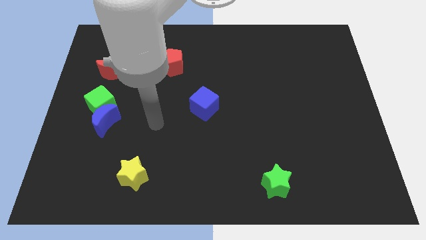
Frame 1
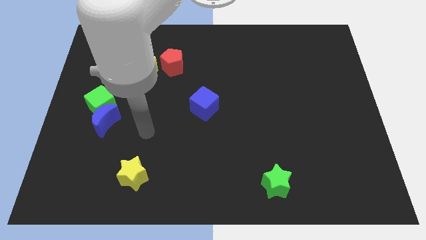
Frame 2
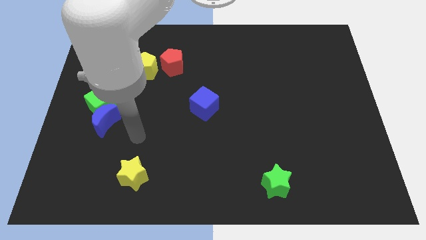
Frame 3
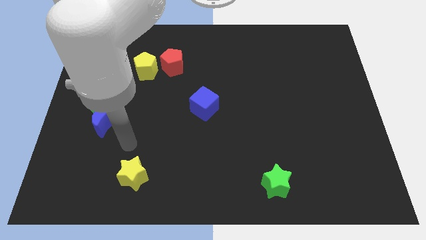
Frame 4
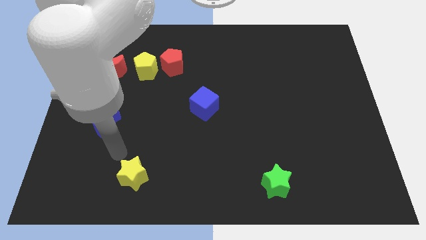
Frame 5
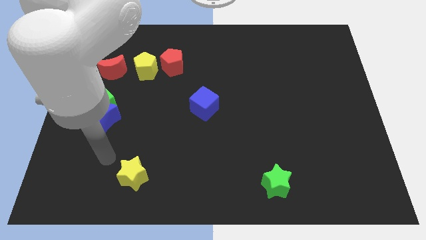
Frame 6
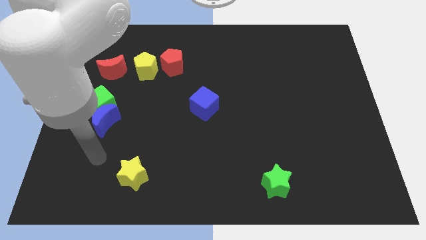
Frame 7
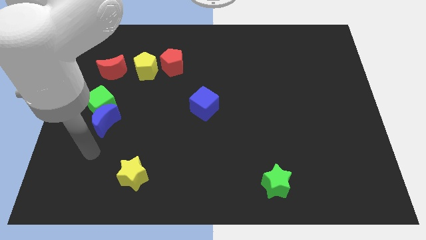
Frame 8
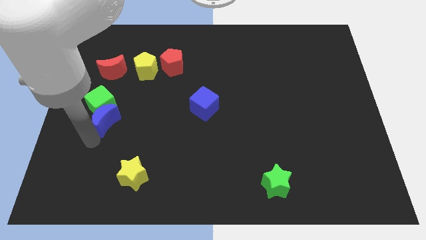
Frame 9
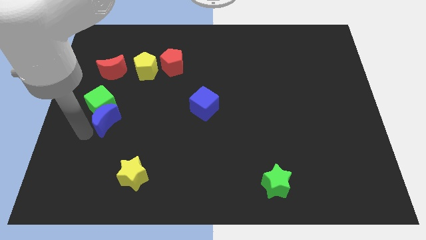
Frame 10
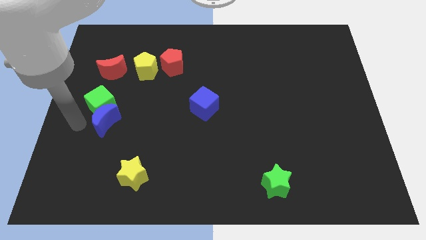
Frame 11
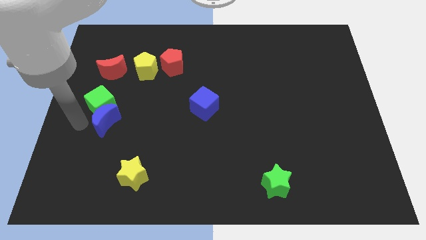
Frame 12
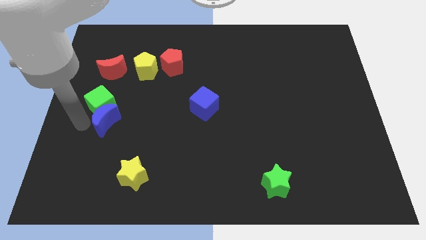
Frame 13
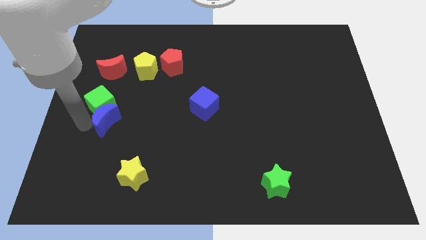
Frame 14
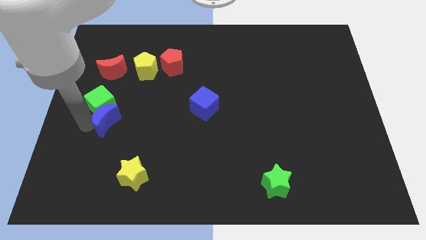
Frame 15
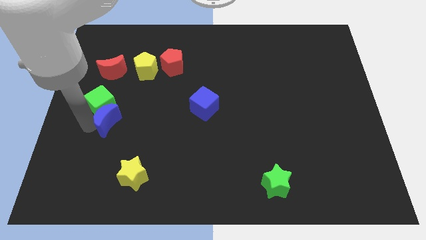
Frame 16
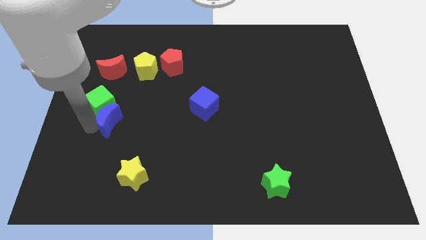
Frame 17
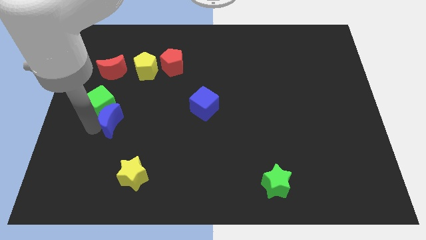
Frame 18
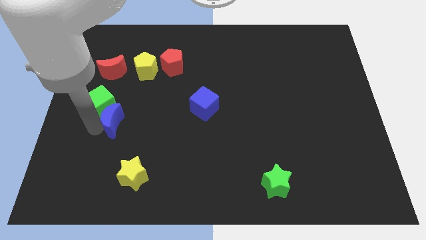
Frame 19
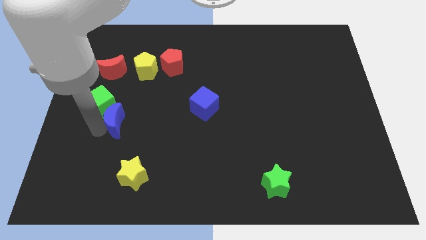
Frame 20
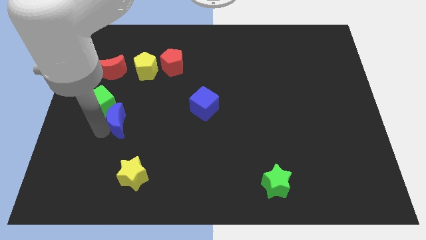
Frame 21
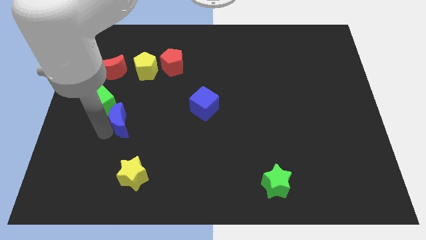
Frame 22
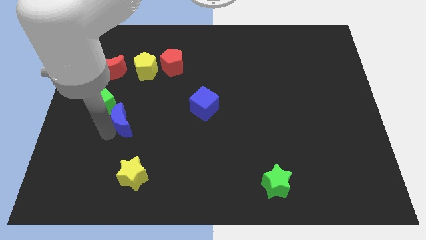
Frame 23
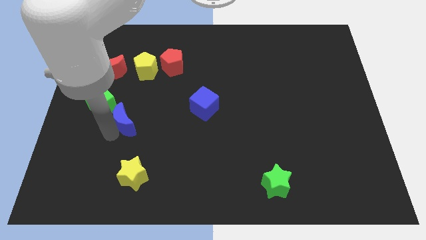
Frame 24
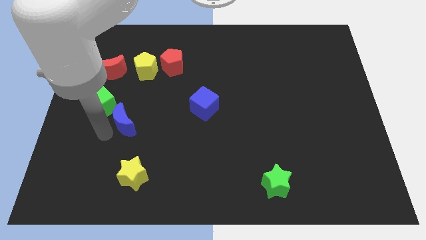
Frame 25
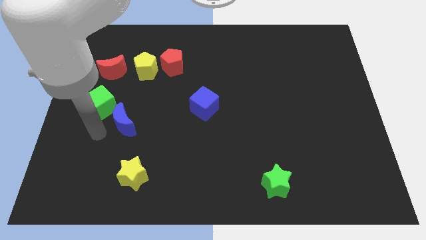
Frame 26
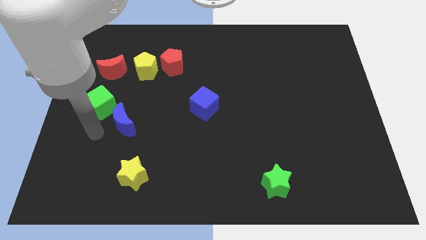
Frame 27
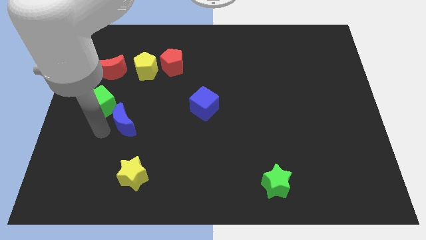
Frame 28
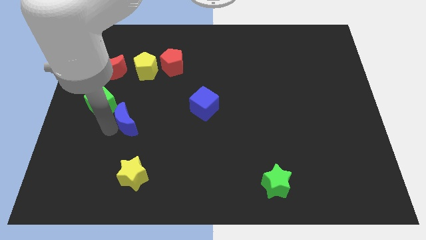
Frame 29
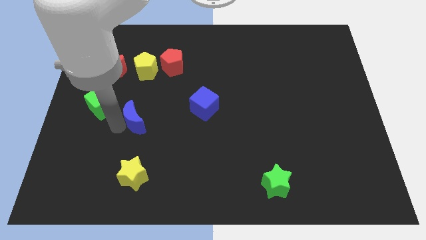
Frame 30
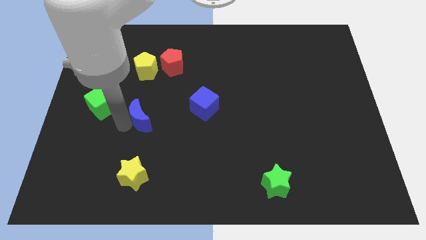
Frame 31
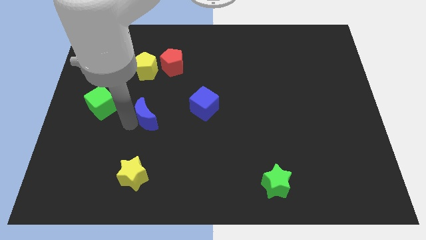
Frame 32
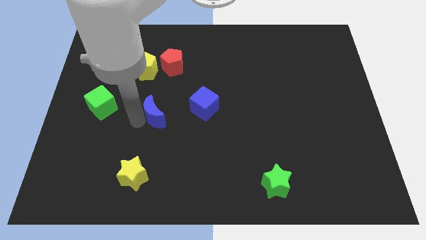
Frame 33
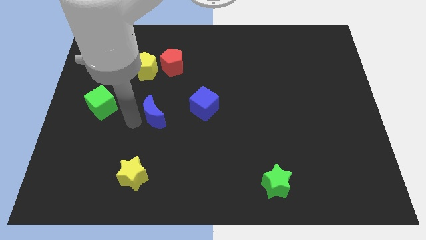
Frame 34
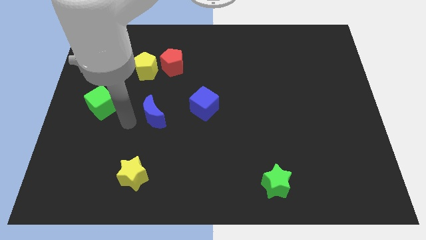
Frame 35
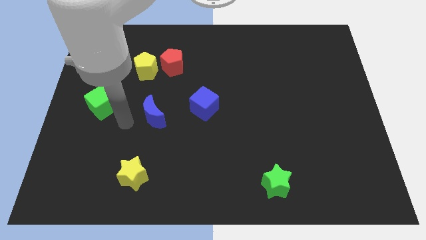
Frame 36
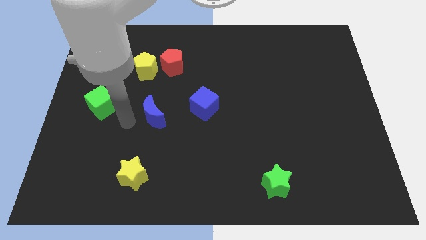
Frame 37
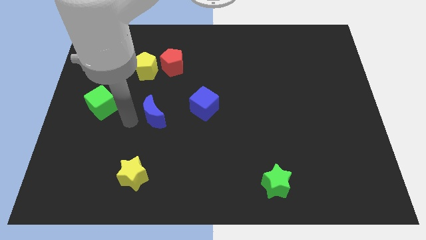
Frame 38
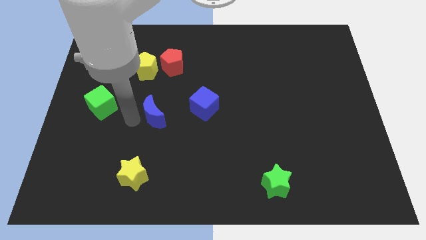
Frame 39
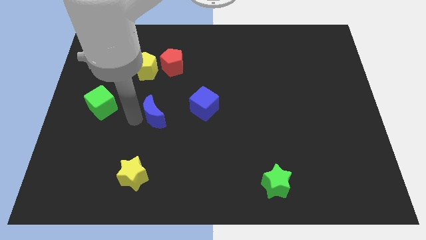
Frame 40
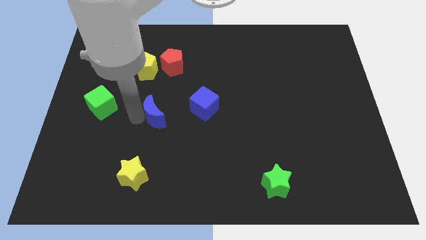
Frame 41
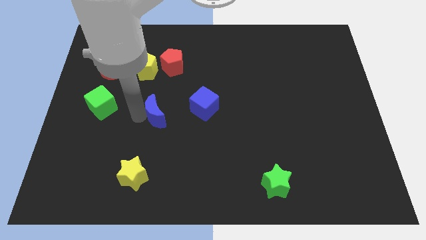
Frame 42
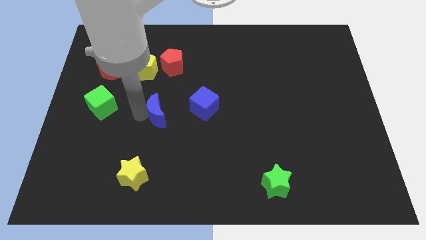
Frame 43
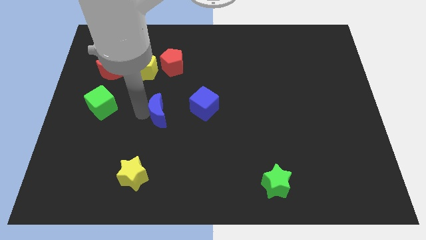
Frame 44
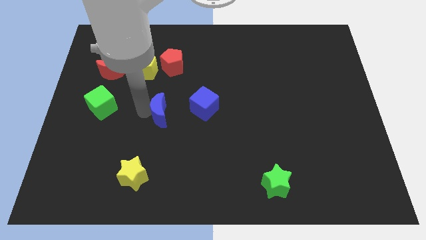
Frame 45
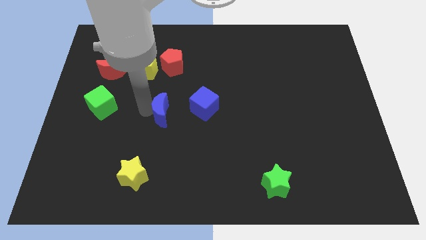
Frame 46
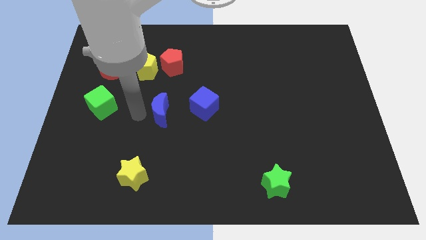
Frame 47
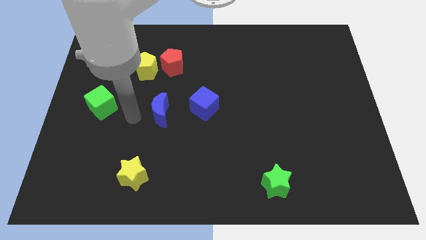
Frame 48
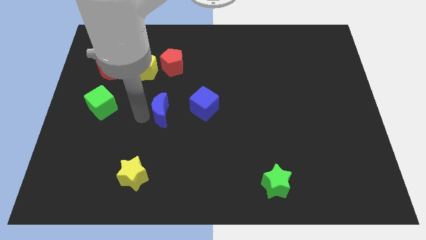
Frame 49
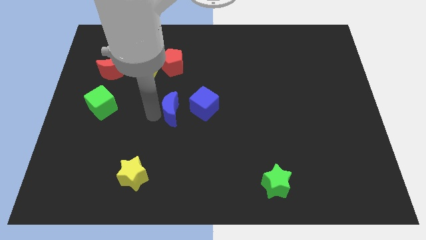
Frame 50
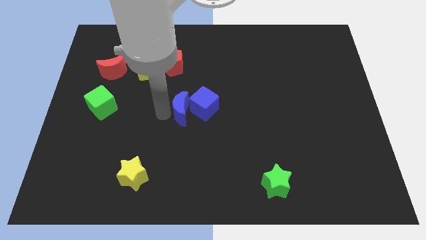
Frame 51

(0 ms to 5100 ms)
slide the blue moon next to the blue cube

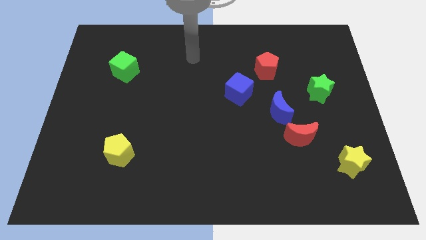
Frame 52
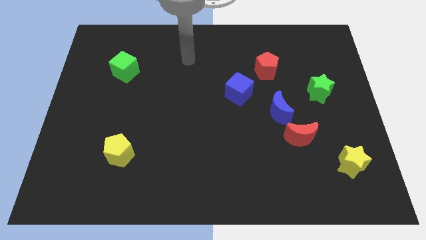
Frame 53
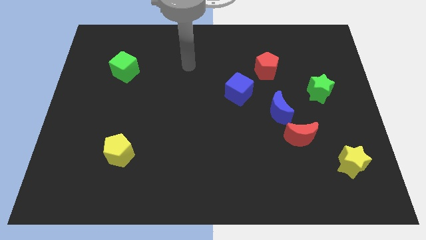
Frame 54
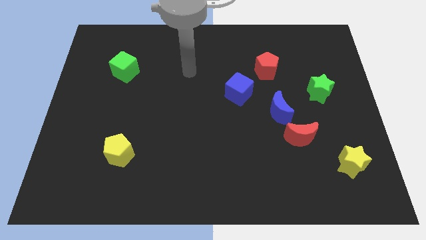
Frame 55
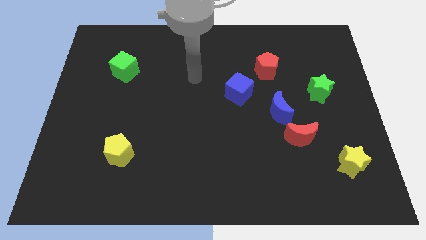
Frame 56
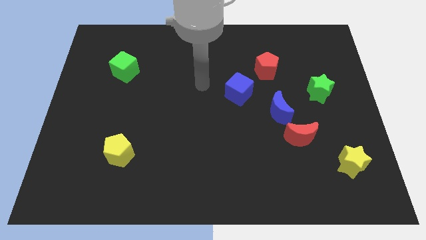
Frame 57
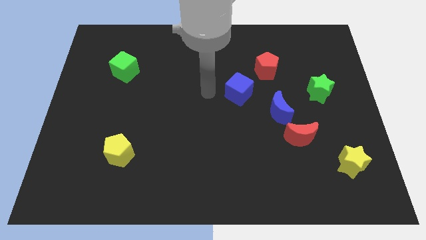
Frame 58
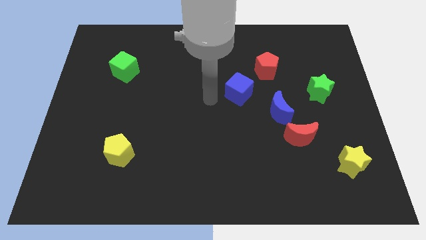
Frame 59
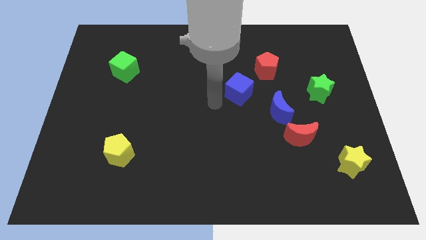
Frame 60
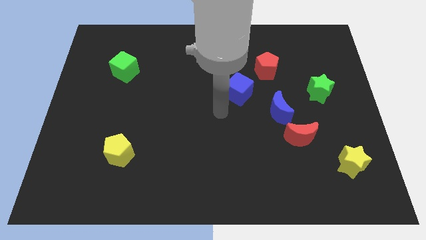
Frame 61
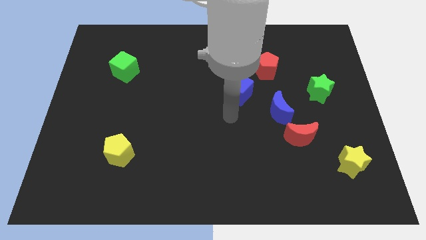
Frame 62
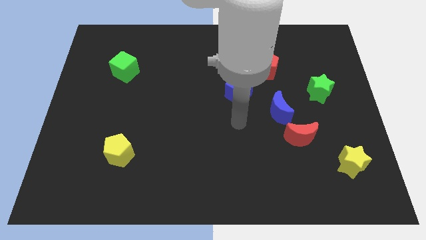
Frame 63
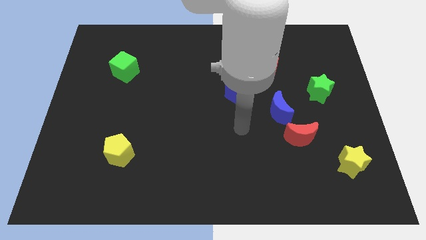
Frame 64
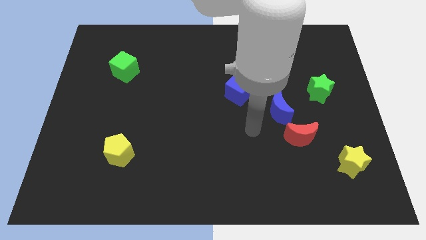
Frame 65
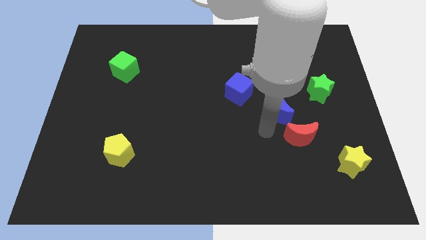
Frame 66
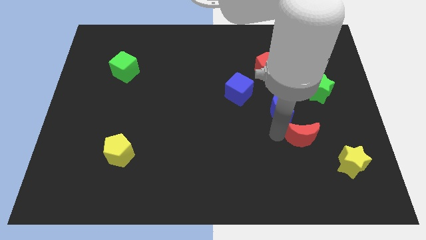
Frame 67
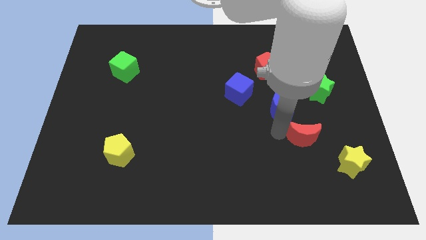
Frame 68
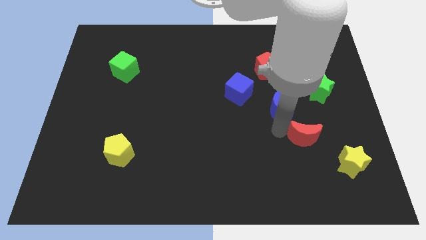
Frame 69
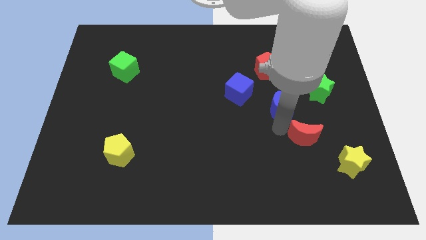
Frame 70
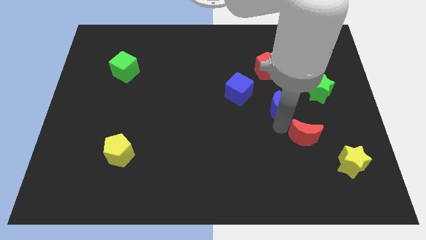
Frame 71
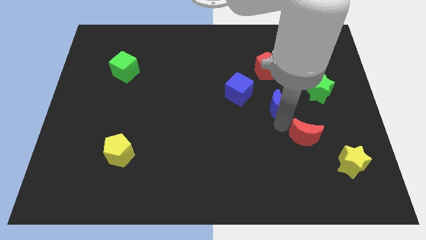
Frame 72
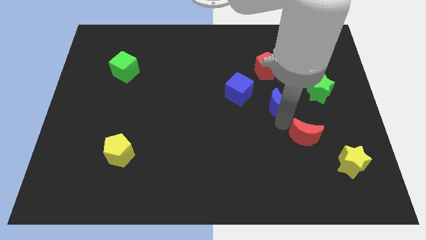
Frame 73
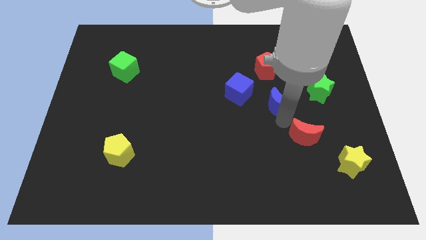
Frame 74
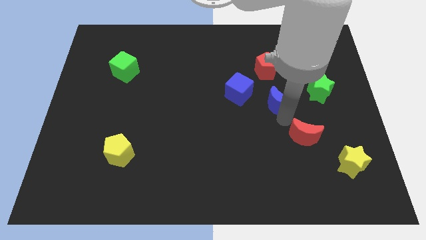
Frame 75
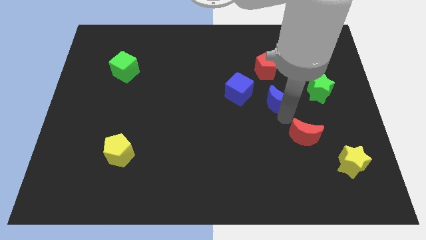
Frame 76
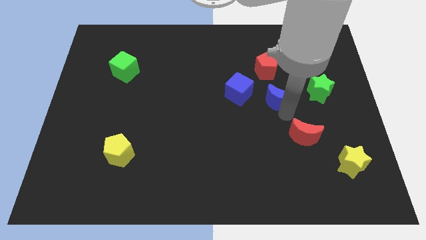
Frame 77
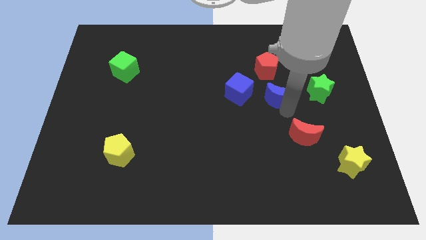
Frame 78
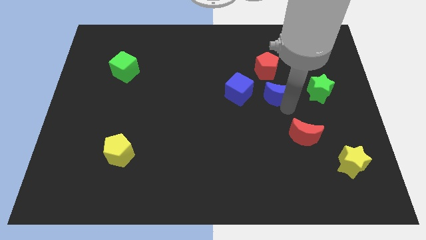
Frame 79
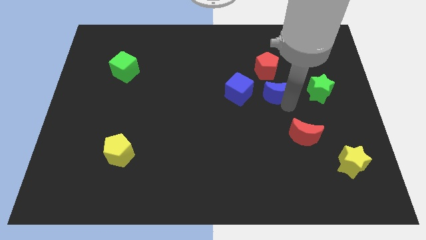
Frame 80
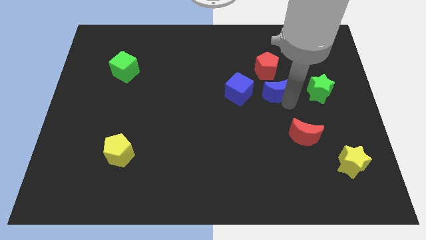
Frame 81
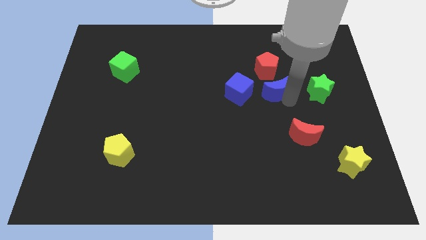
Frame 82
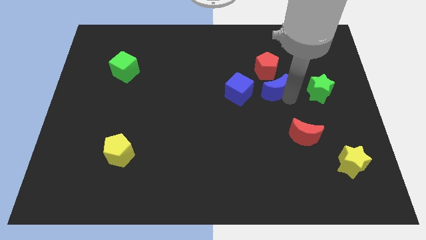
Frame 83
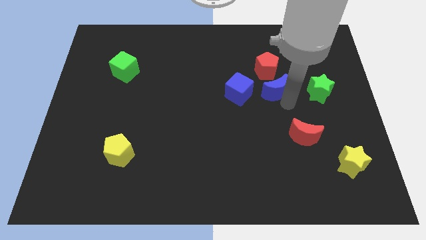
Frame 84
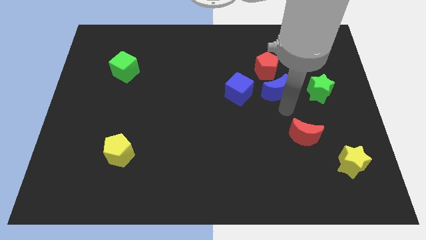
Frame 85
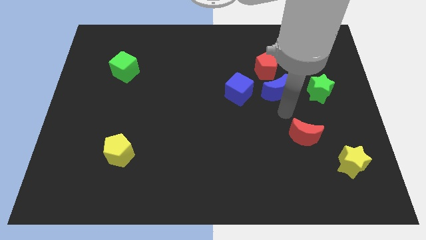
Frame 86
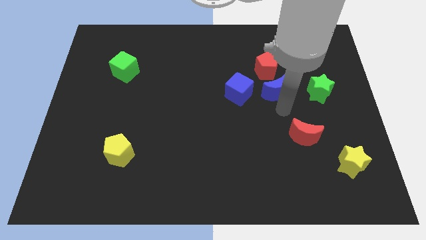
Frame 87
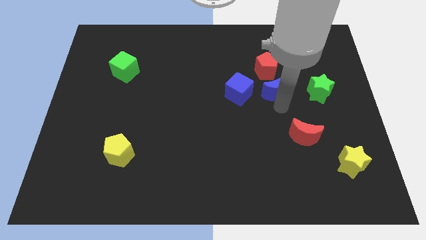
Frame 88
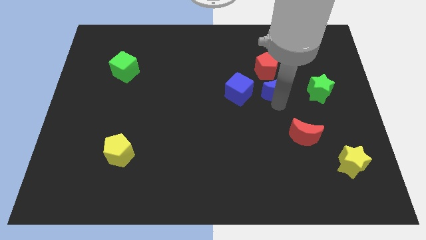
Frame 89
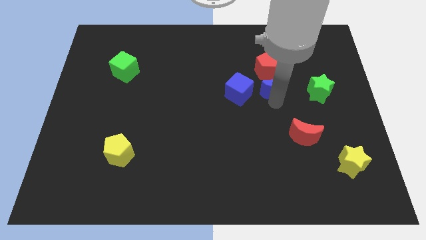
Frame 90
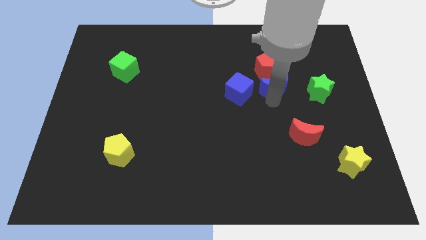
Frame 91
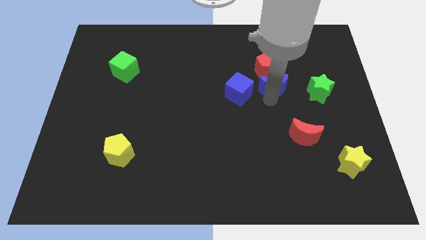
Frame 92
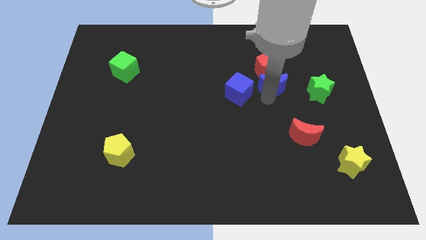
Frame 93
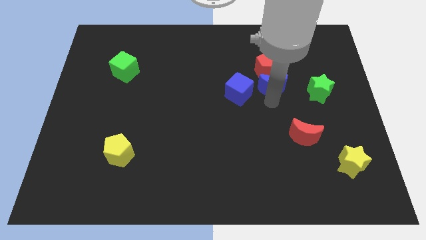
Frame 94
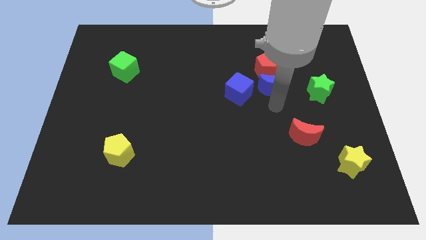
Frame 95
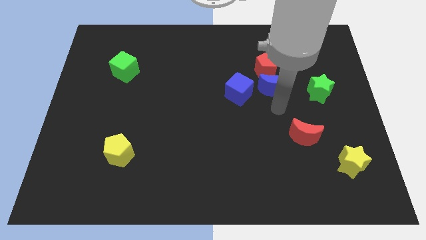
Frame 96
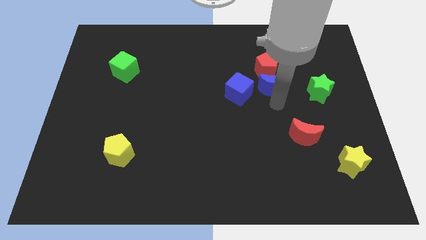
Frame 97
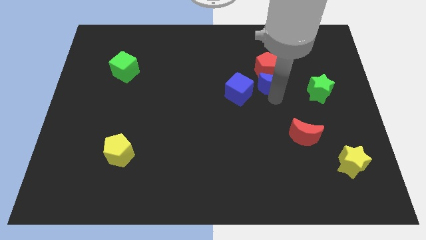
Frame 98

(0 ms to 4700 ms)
move the blue moon next to the red pentagon
